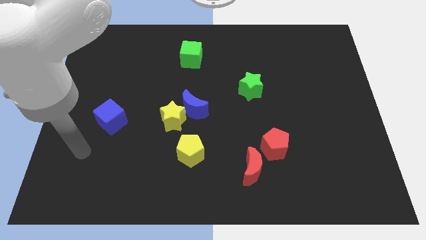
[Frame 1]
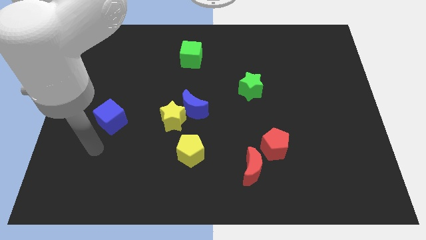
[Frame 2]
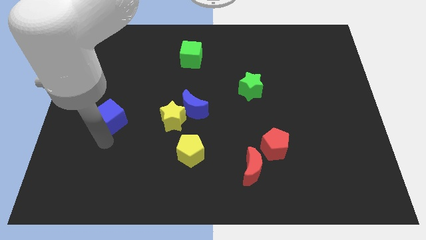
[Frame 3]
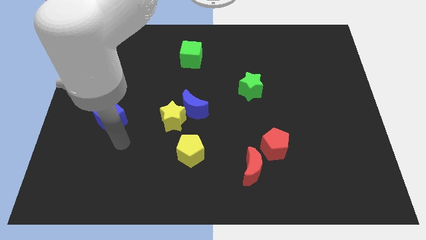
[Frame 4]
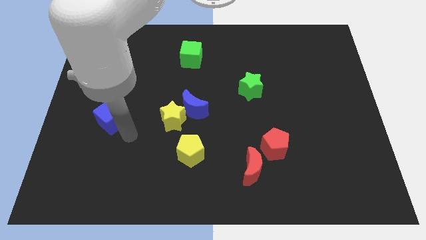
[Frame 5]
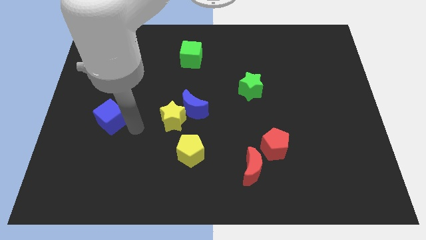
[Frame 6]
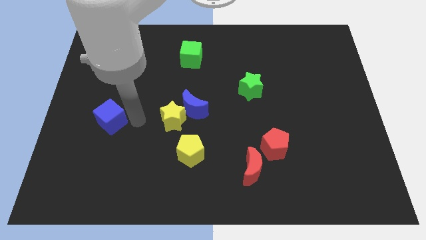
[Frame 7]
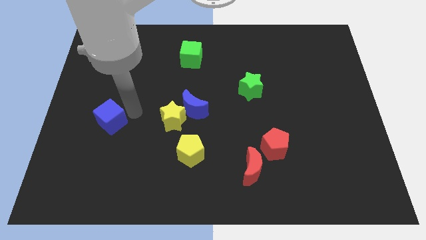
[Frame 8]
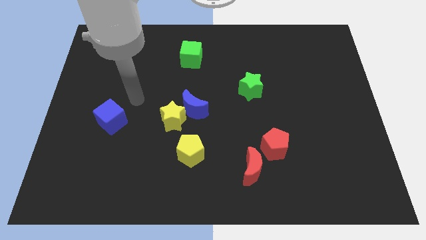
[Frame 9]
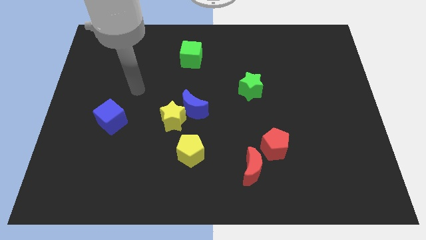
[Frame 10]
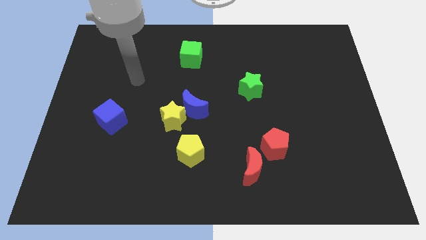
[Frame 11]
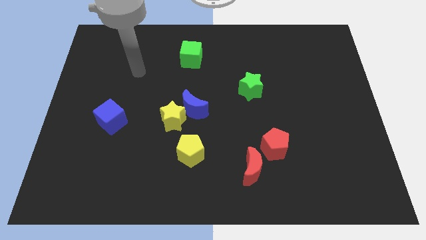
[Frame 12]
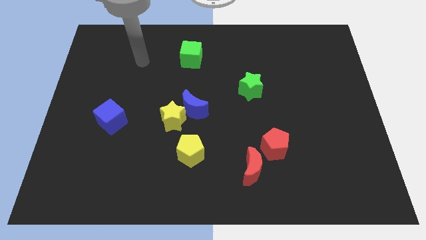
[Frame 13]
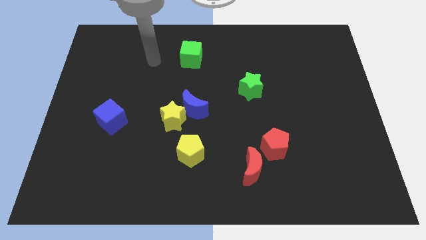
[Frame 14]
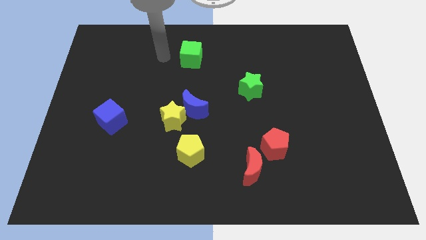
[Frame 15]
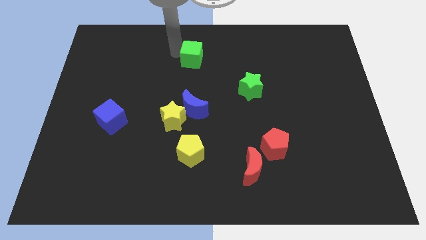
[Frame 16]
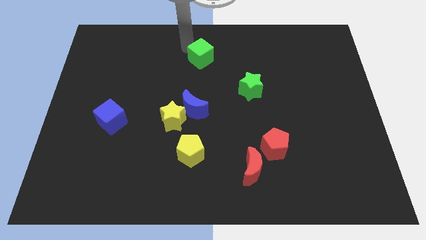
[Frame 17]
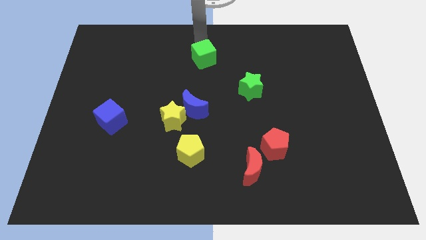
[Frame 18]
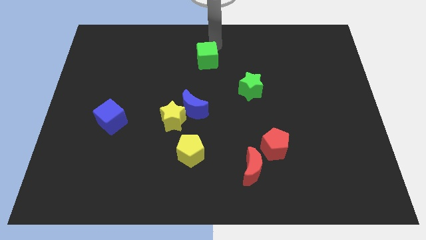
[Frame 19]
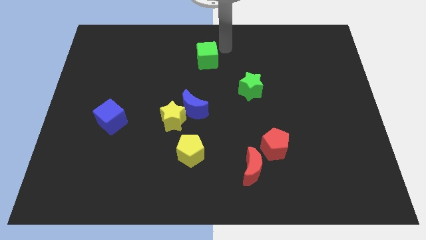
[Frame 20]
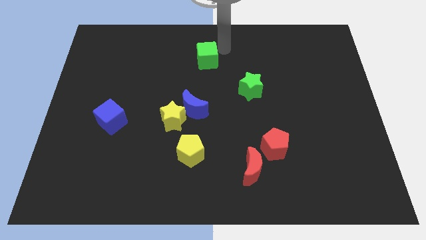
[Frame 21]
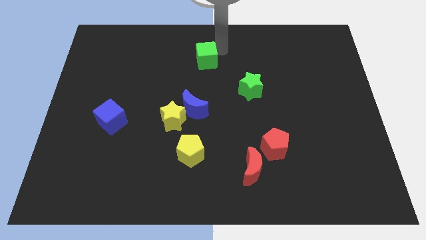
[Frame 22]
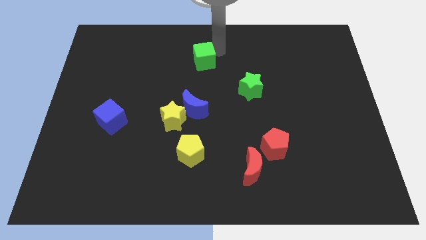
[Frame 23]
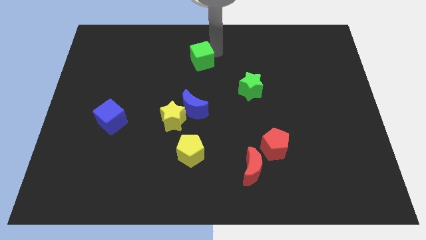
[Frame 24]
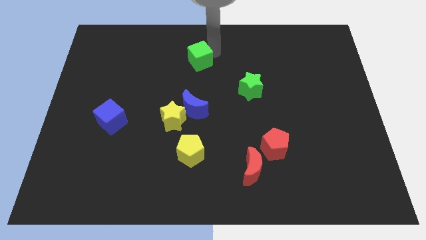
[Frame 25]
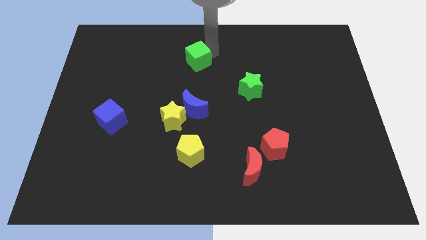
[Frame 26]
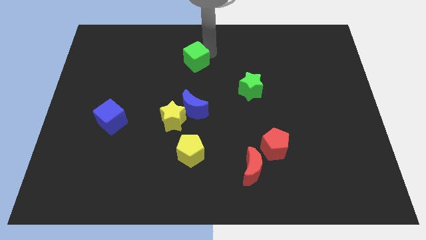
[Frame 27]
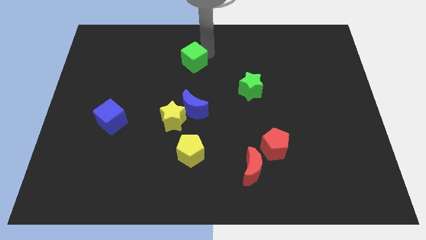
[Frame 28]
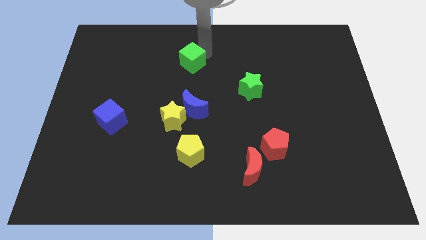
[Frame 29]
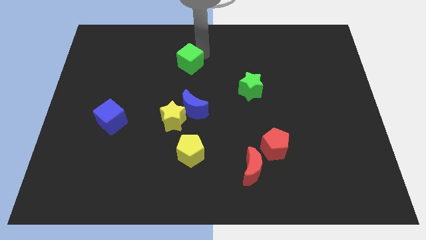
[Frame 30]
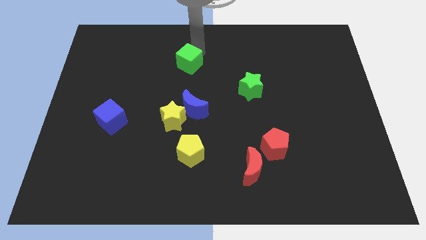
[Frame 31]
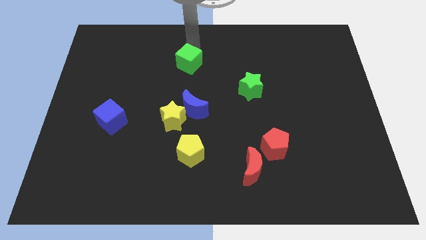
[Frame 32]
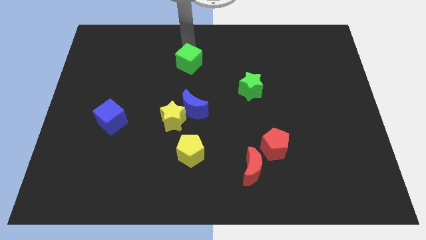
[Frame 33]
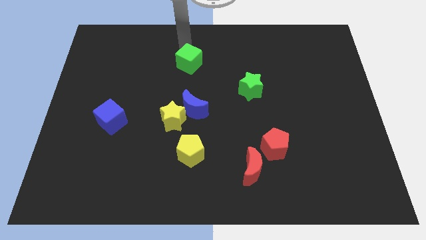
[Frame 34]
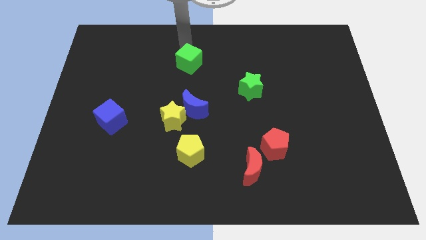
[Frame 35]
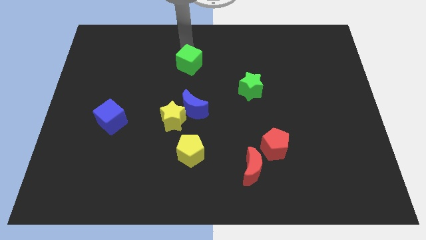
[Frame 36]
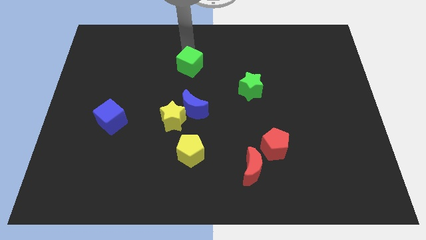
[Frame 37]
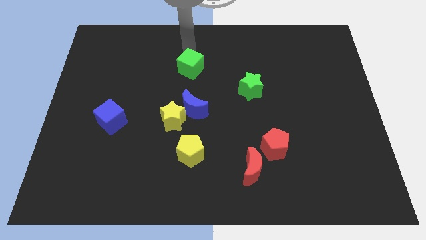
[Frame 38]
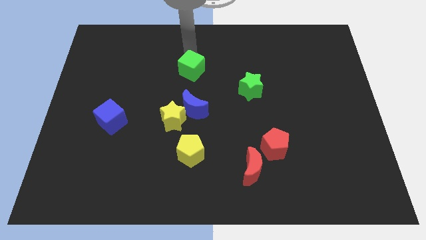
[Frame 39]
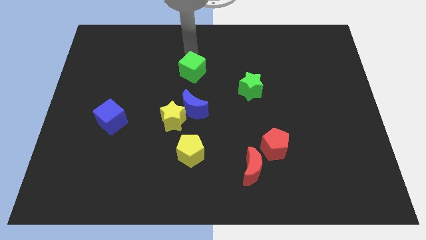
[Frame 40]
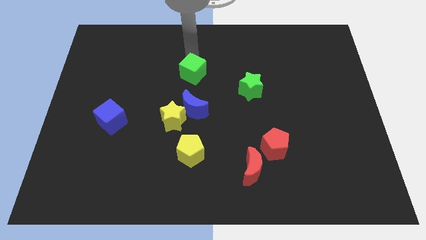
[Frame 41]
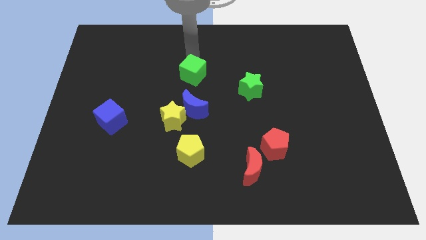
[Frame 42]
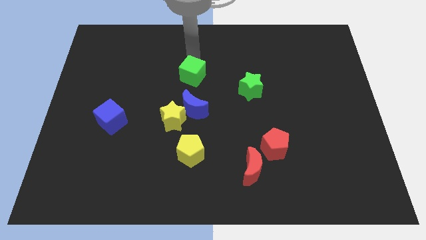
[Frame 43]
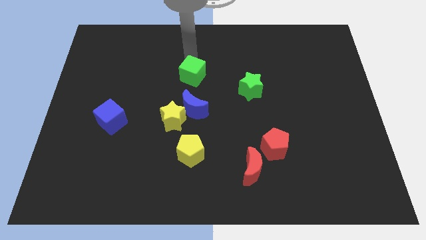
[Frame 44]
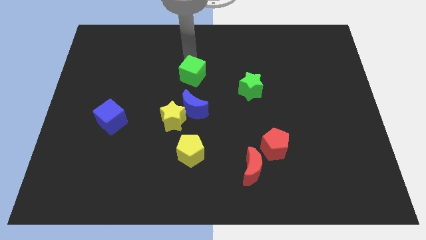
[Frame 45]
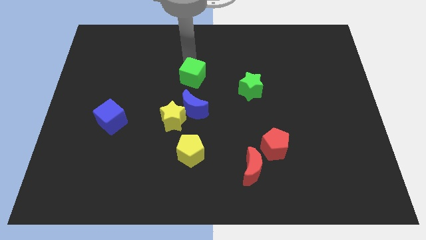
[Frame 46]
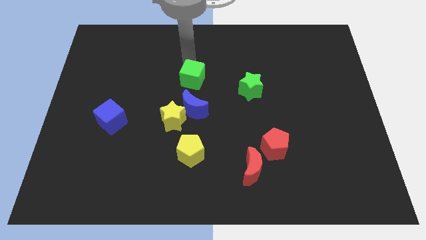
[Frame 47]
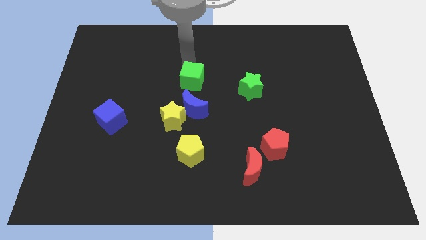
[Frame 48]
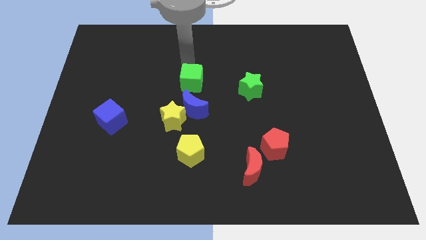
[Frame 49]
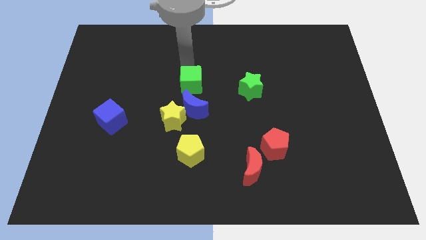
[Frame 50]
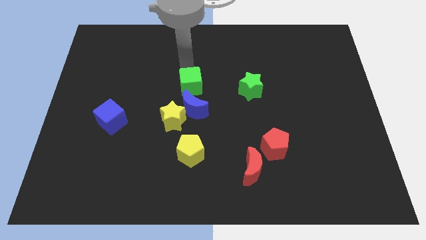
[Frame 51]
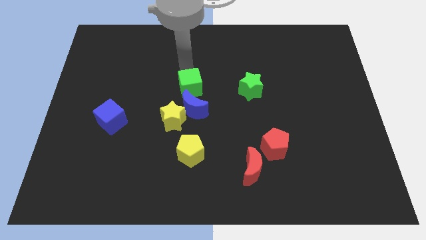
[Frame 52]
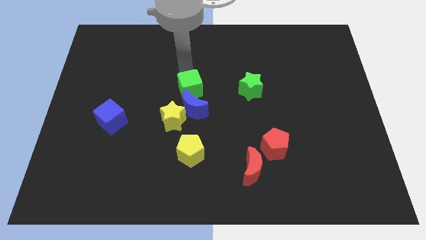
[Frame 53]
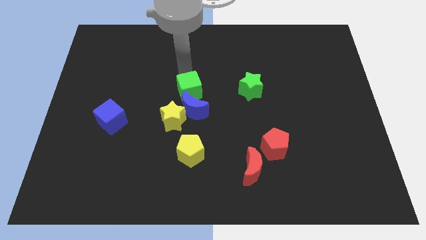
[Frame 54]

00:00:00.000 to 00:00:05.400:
slide the green cube next to the blue moon

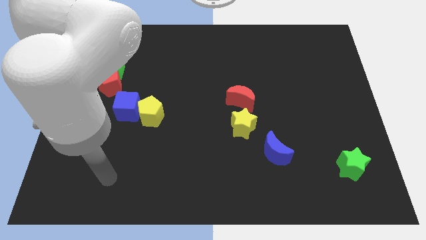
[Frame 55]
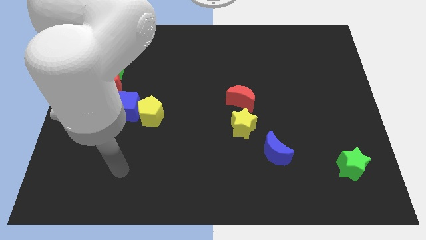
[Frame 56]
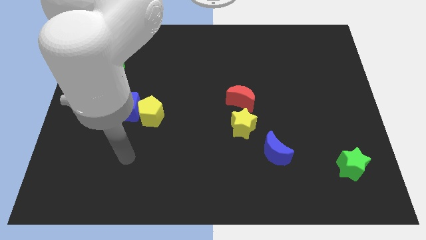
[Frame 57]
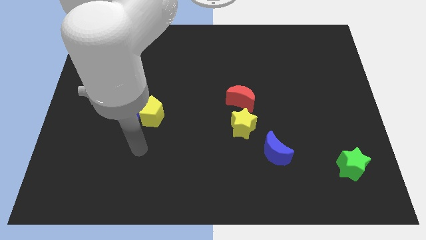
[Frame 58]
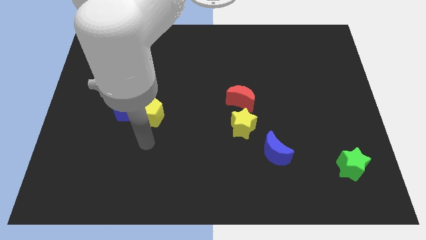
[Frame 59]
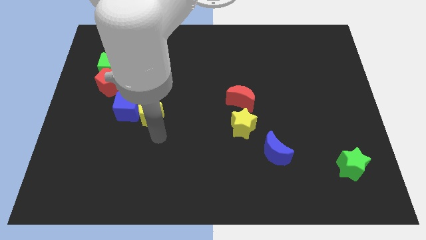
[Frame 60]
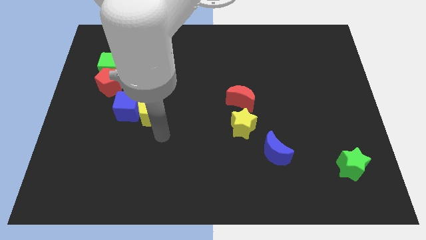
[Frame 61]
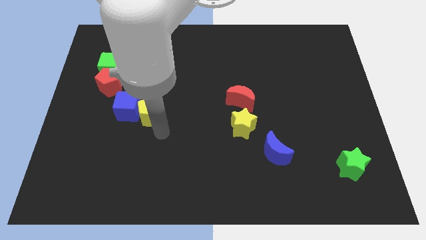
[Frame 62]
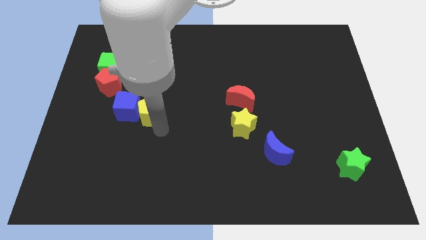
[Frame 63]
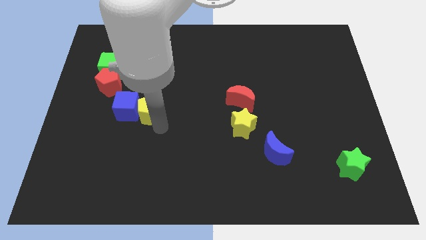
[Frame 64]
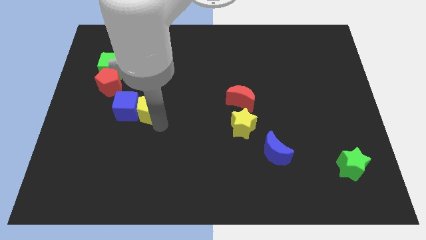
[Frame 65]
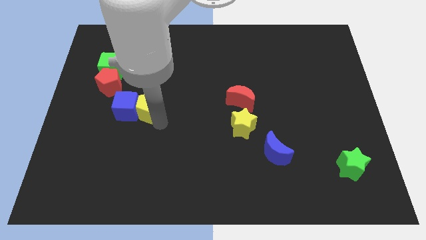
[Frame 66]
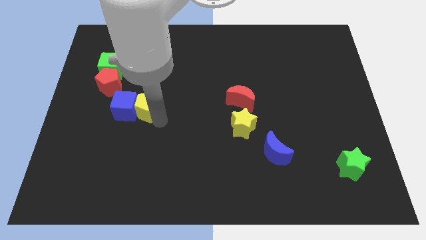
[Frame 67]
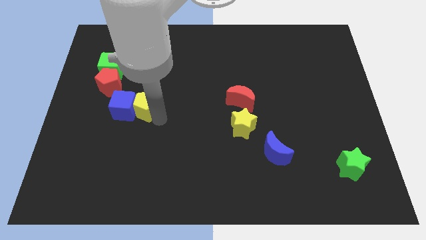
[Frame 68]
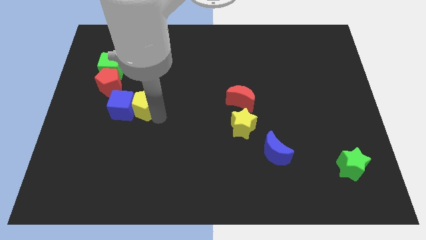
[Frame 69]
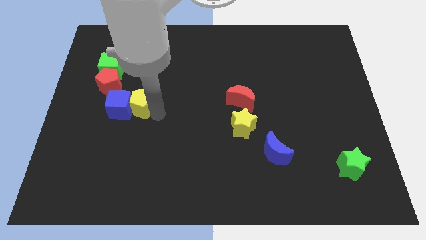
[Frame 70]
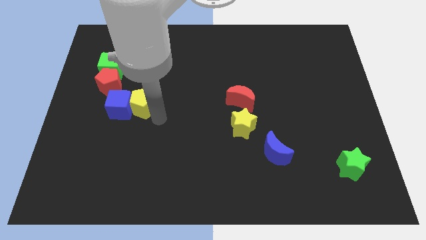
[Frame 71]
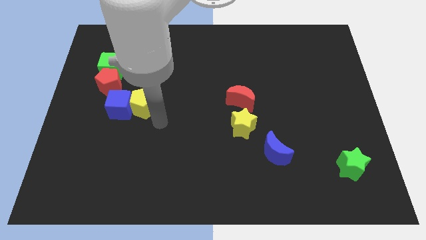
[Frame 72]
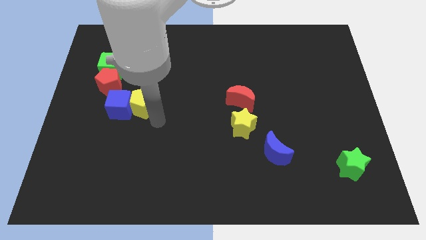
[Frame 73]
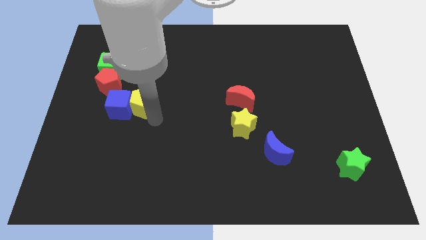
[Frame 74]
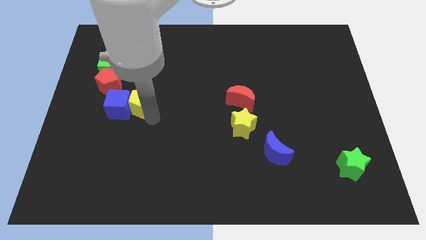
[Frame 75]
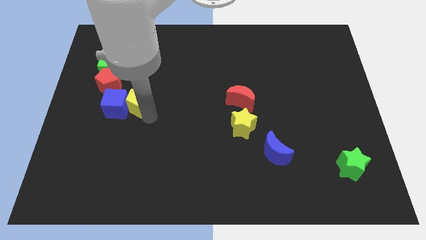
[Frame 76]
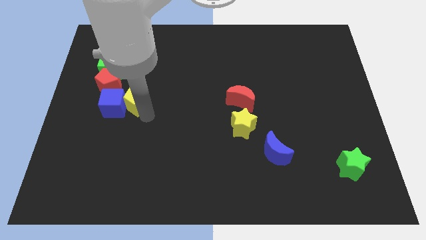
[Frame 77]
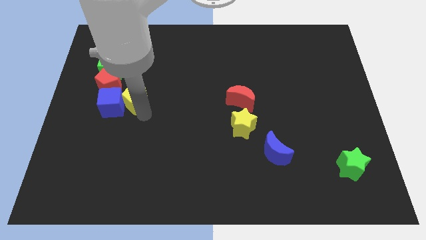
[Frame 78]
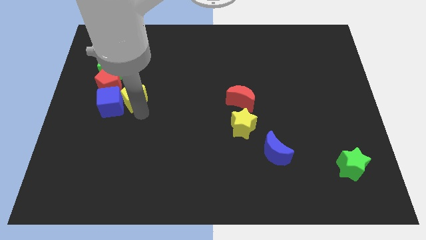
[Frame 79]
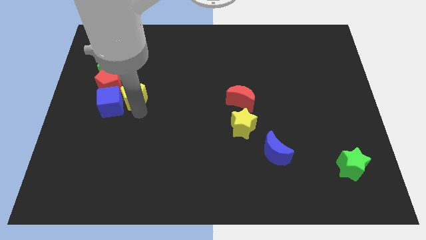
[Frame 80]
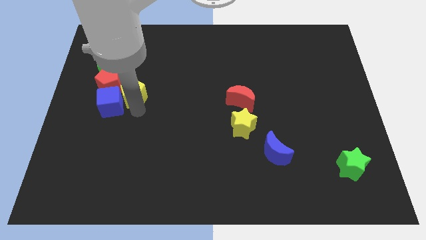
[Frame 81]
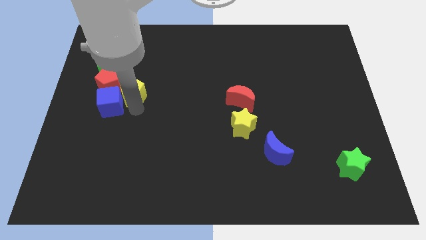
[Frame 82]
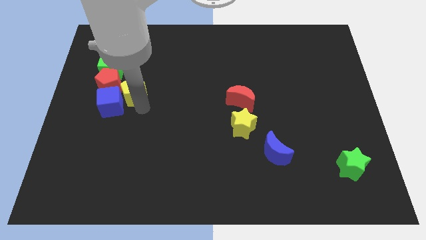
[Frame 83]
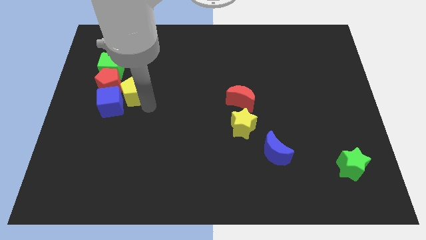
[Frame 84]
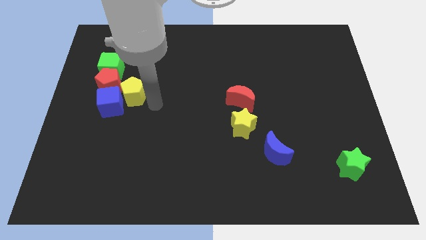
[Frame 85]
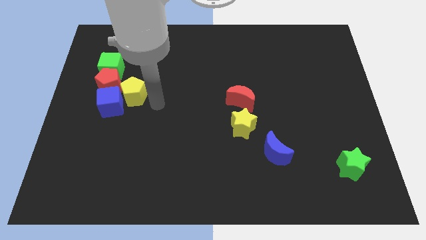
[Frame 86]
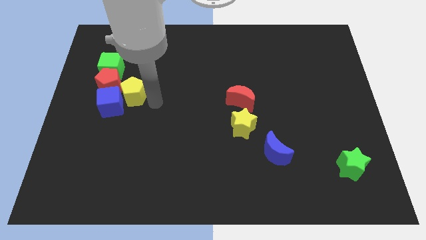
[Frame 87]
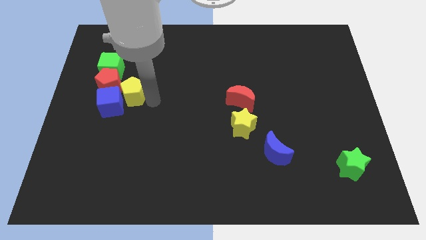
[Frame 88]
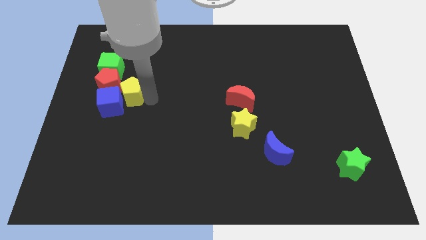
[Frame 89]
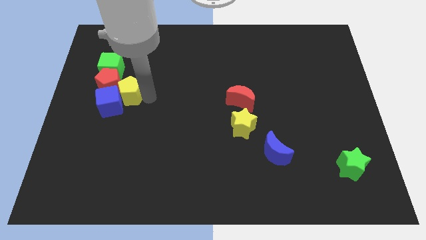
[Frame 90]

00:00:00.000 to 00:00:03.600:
move the yellow pentagon to the red pentagon
